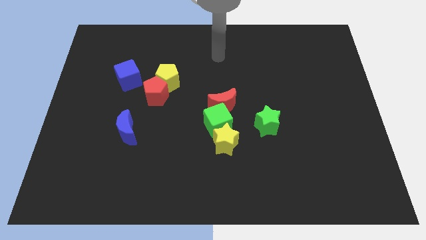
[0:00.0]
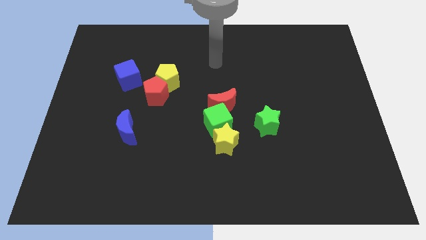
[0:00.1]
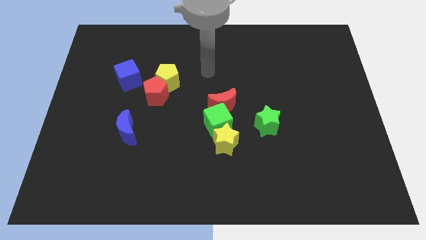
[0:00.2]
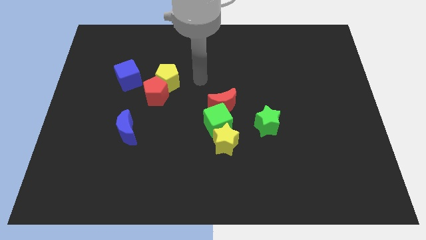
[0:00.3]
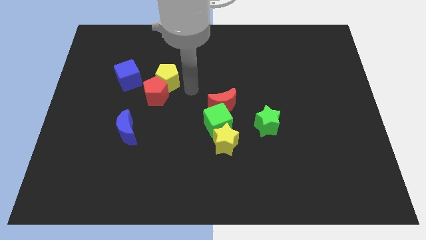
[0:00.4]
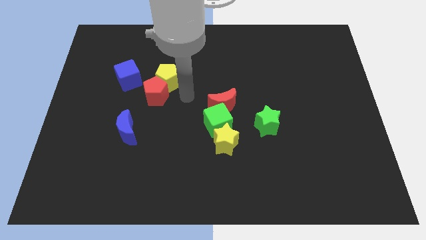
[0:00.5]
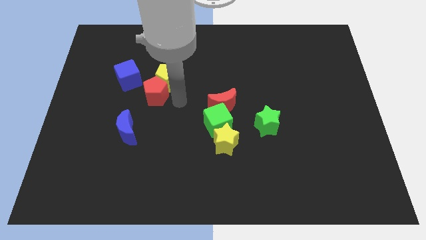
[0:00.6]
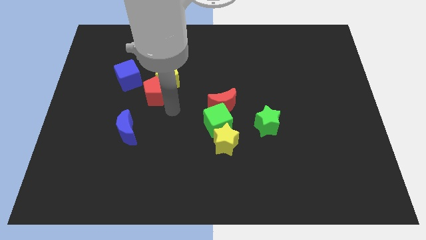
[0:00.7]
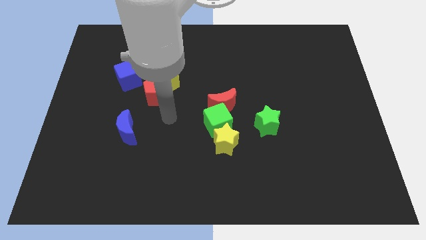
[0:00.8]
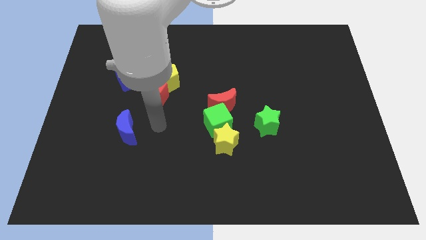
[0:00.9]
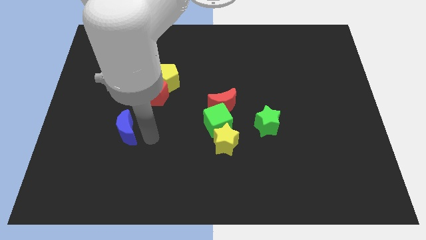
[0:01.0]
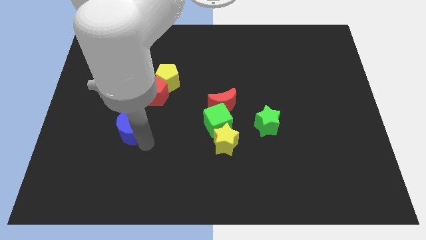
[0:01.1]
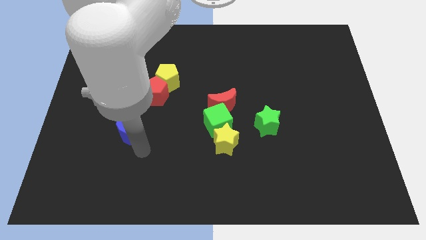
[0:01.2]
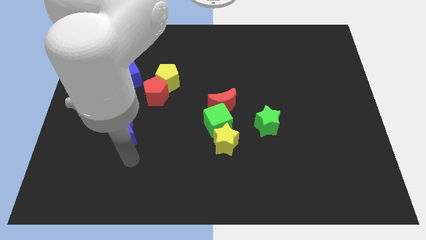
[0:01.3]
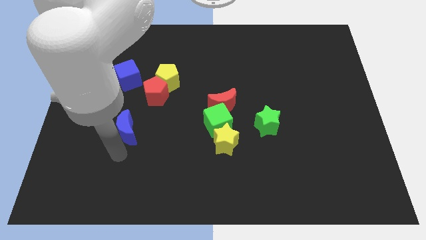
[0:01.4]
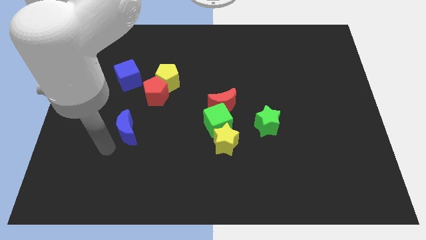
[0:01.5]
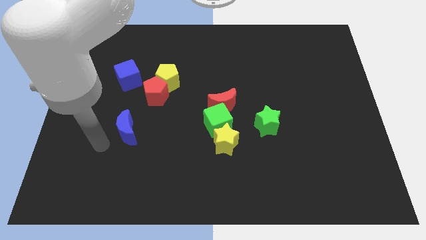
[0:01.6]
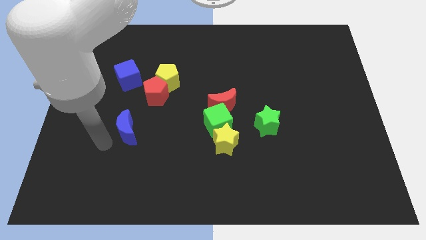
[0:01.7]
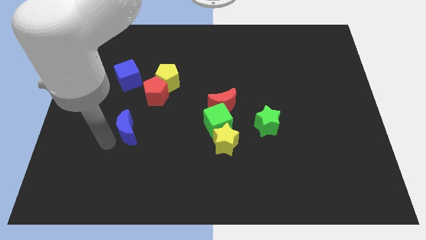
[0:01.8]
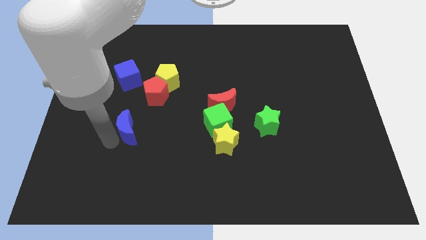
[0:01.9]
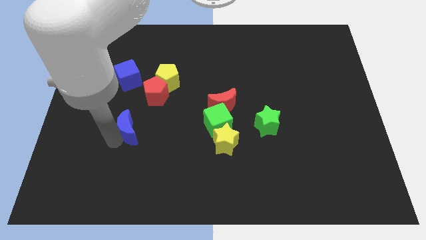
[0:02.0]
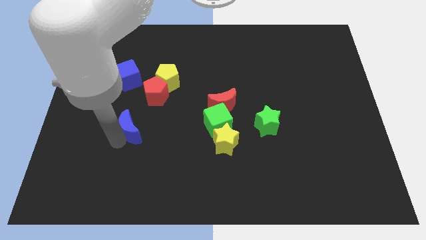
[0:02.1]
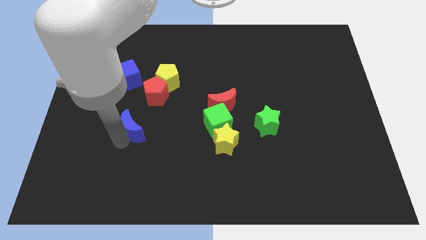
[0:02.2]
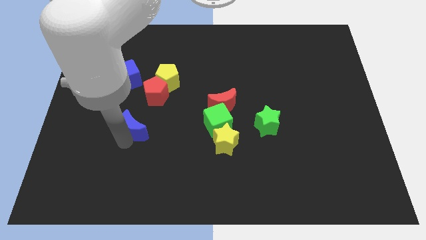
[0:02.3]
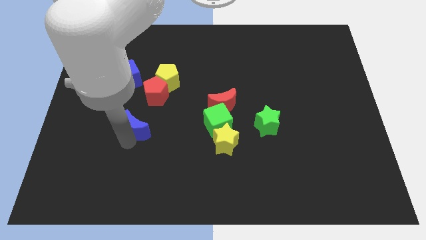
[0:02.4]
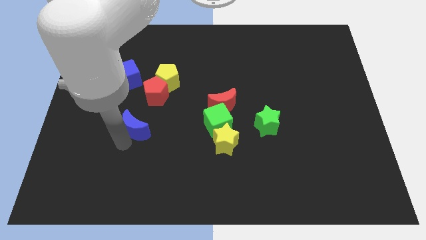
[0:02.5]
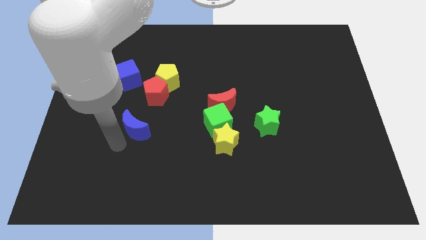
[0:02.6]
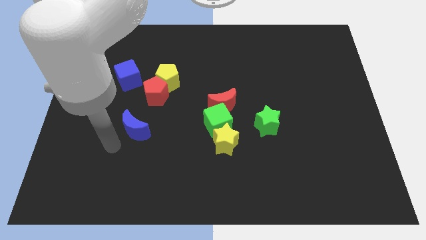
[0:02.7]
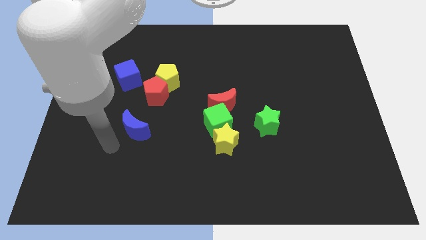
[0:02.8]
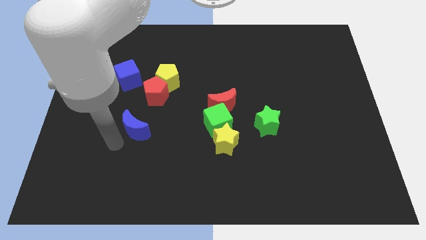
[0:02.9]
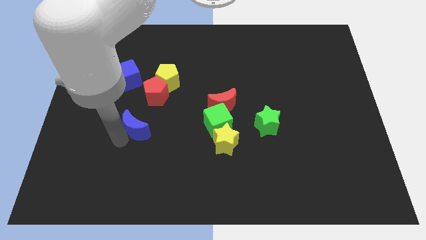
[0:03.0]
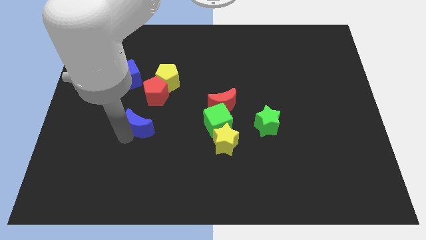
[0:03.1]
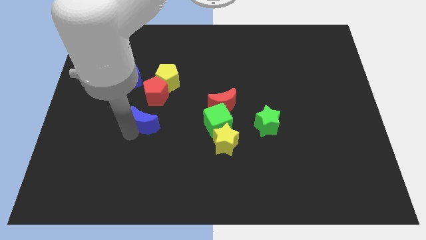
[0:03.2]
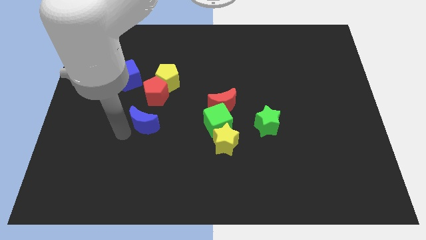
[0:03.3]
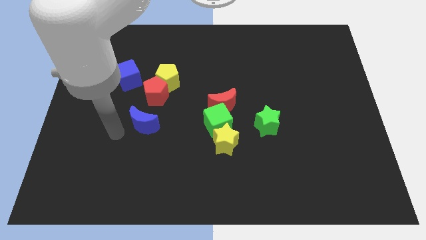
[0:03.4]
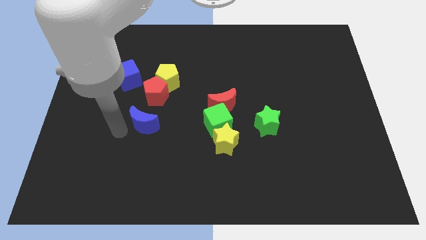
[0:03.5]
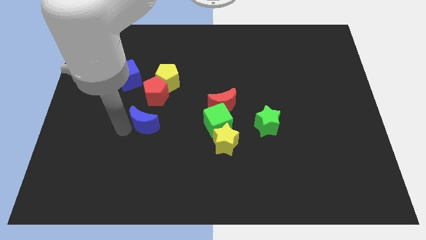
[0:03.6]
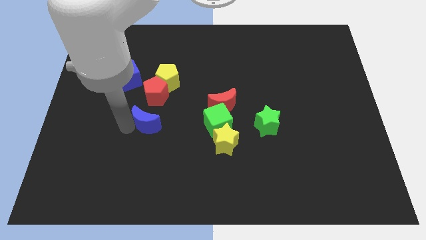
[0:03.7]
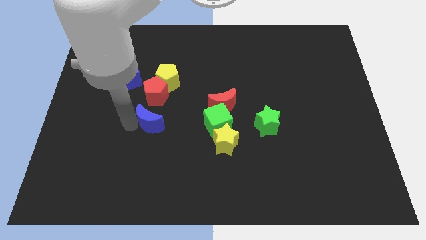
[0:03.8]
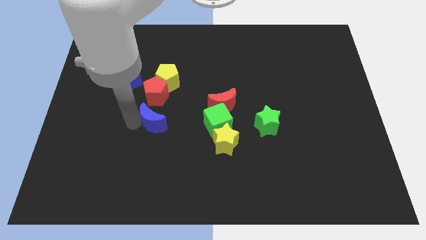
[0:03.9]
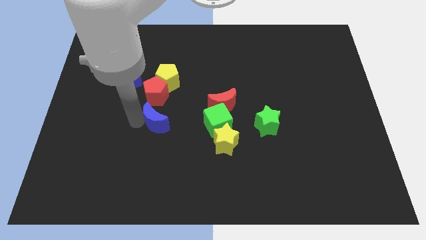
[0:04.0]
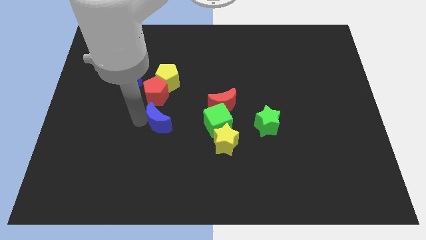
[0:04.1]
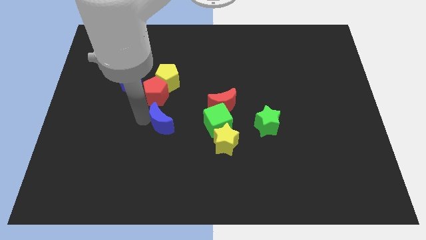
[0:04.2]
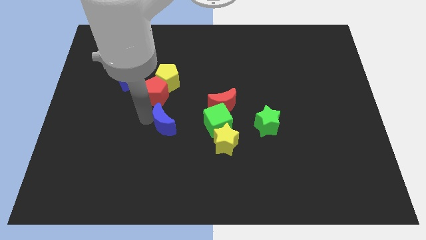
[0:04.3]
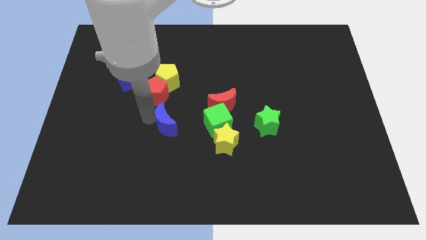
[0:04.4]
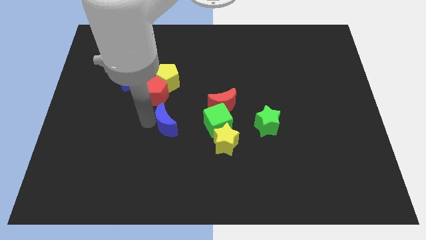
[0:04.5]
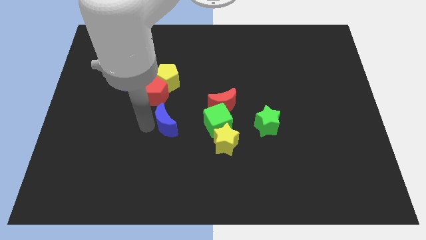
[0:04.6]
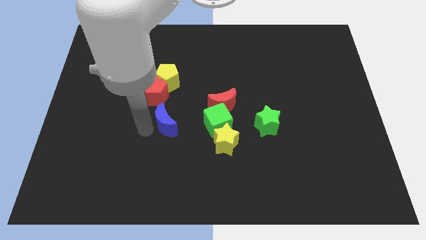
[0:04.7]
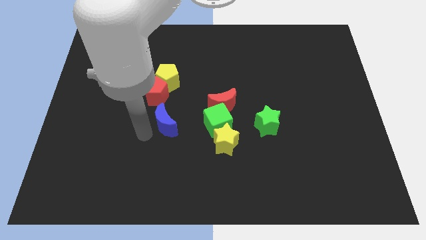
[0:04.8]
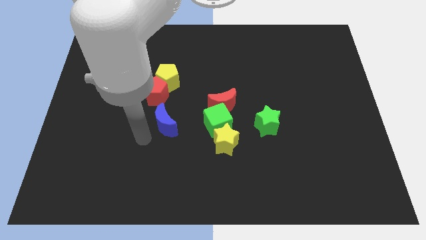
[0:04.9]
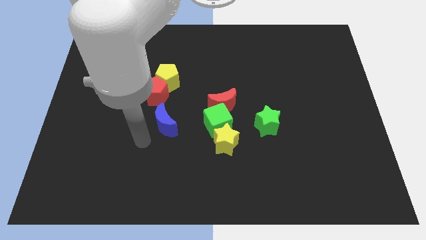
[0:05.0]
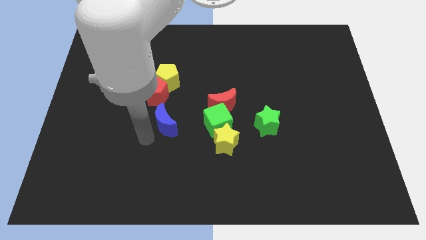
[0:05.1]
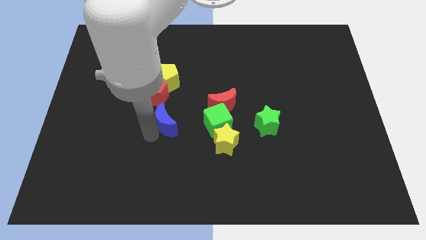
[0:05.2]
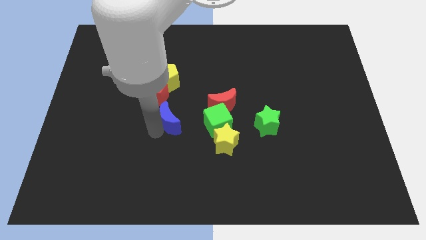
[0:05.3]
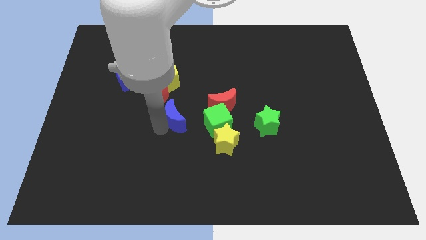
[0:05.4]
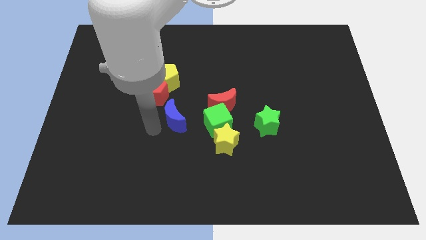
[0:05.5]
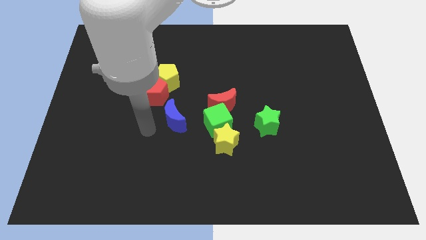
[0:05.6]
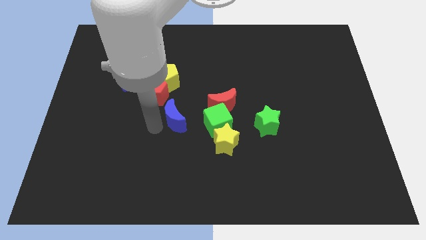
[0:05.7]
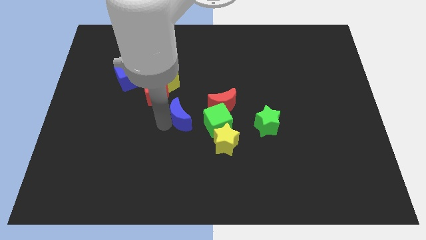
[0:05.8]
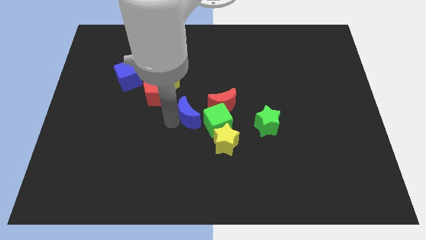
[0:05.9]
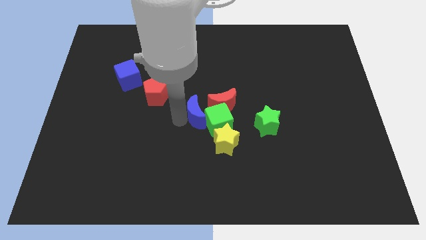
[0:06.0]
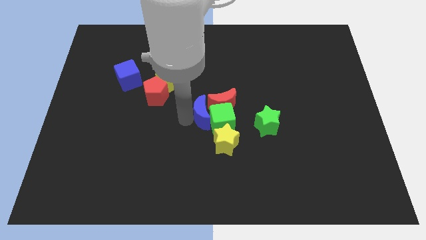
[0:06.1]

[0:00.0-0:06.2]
slide the blue moon close to the red moon

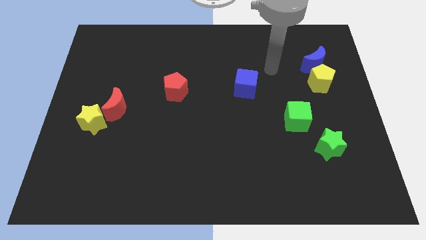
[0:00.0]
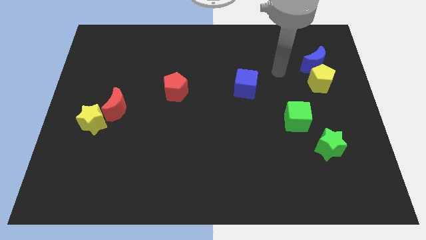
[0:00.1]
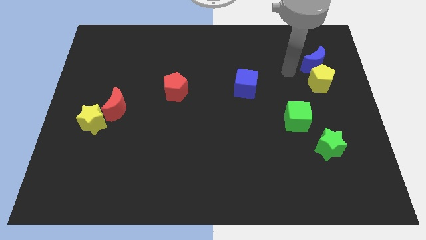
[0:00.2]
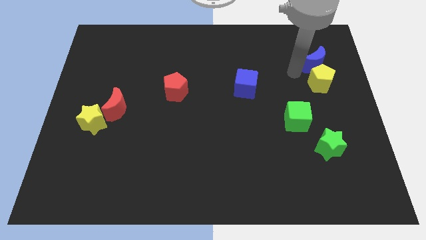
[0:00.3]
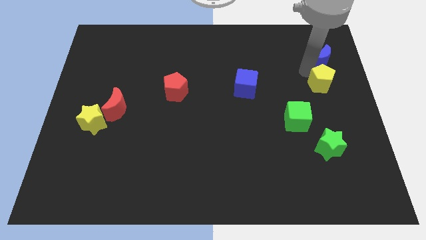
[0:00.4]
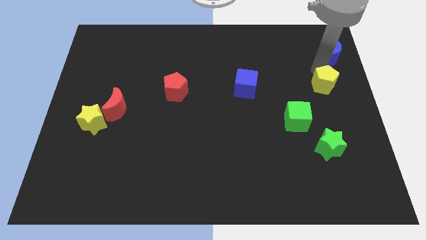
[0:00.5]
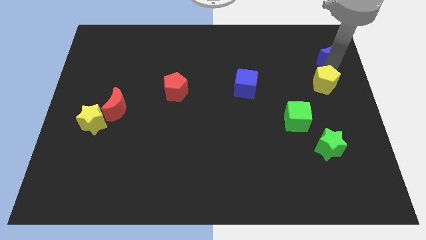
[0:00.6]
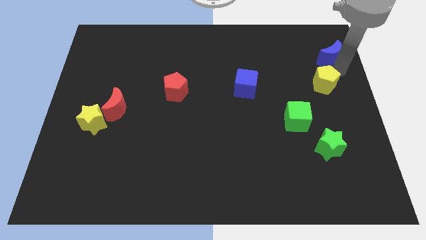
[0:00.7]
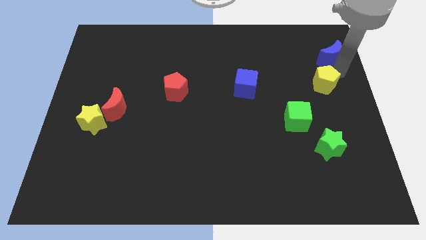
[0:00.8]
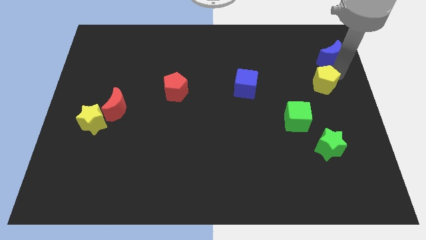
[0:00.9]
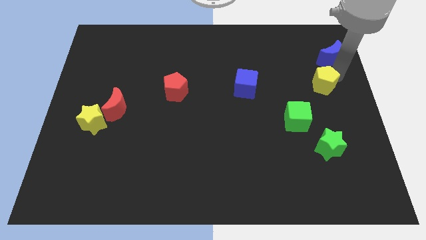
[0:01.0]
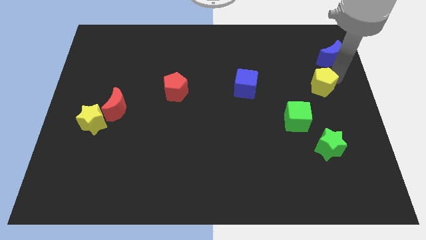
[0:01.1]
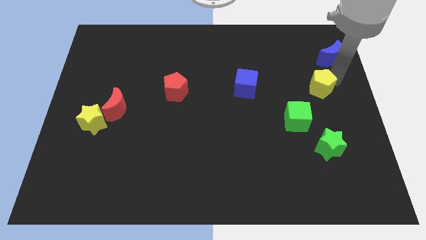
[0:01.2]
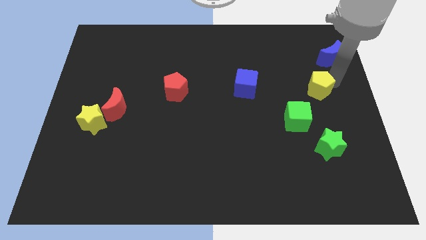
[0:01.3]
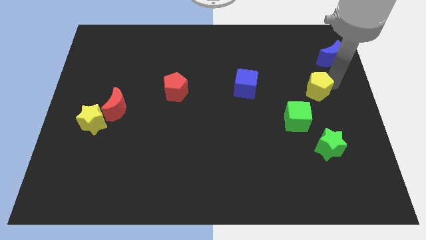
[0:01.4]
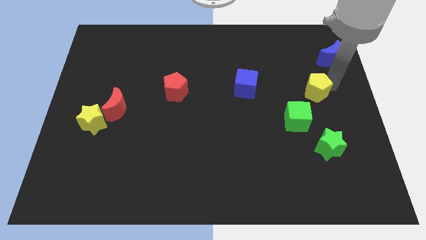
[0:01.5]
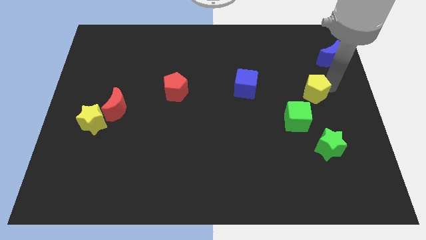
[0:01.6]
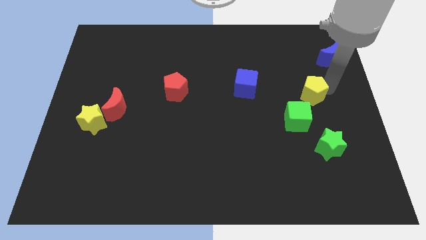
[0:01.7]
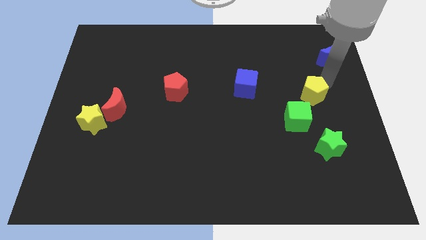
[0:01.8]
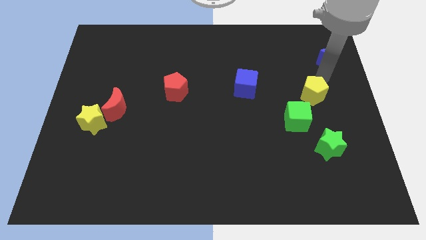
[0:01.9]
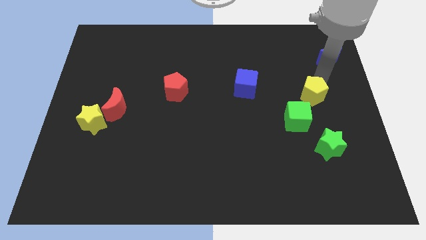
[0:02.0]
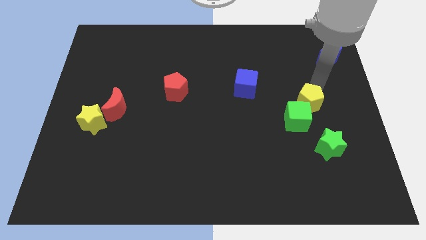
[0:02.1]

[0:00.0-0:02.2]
put the yellow pentagon towards the green cube
